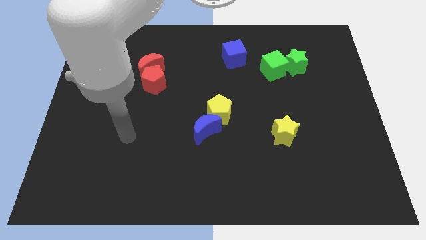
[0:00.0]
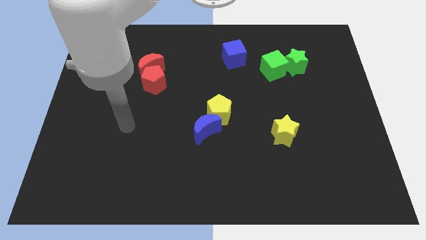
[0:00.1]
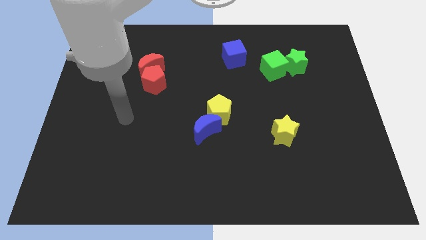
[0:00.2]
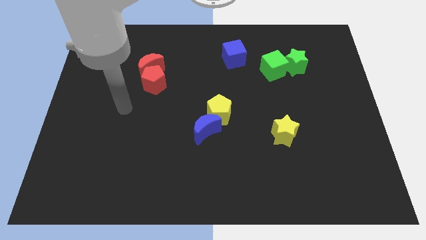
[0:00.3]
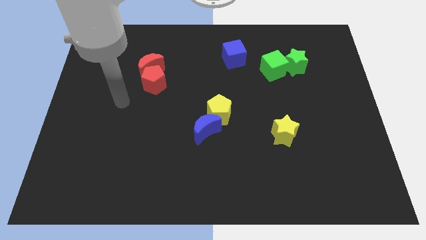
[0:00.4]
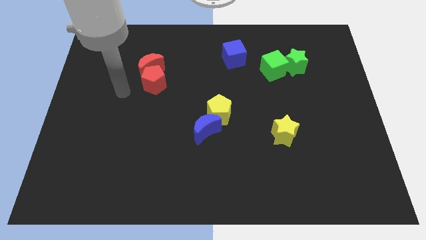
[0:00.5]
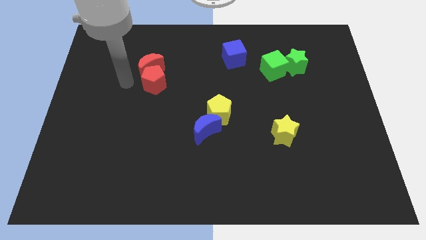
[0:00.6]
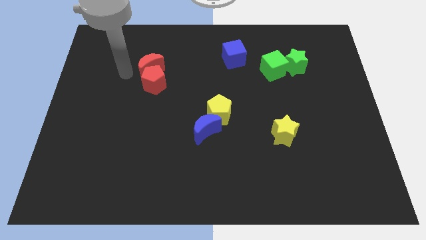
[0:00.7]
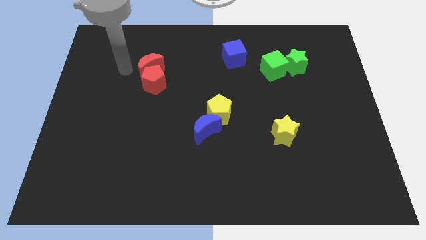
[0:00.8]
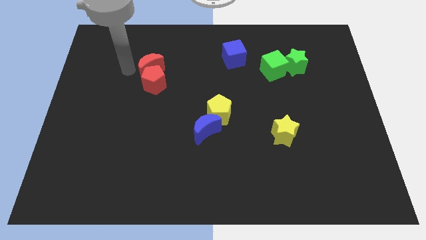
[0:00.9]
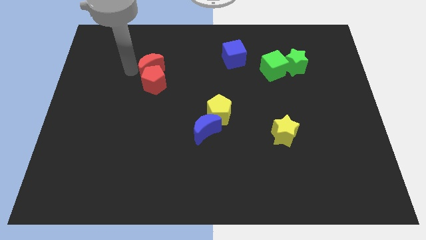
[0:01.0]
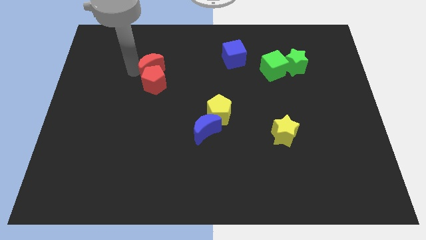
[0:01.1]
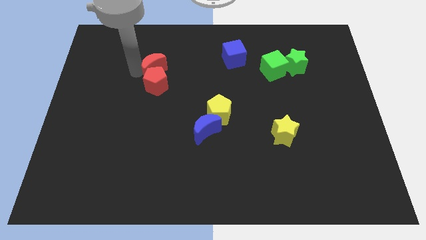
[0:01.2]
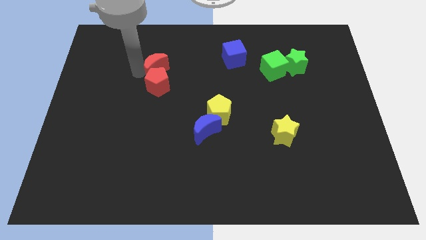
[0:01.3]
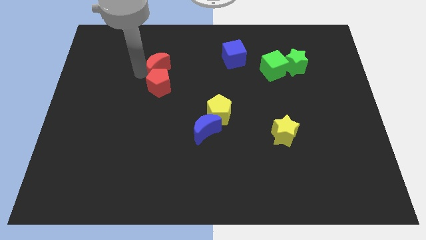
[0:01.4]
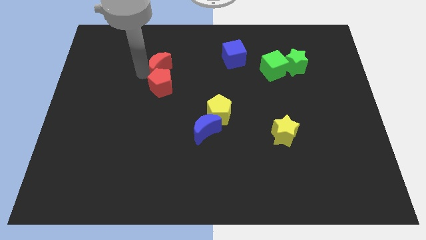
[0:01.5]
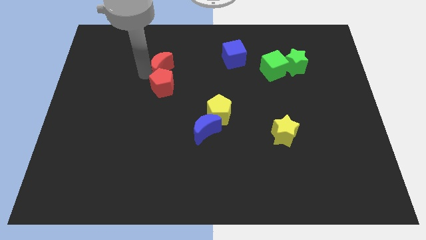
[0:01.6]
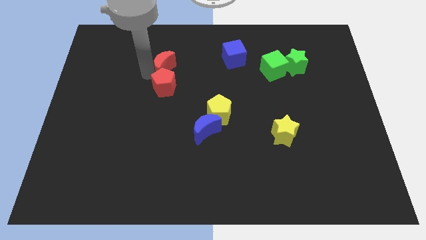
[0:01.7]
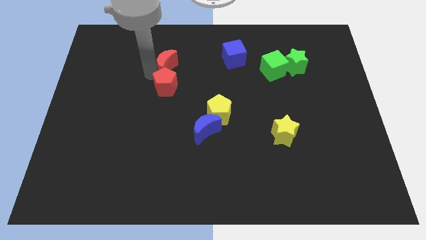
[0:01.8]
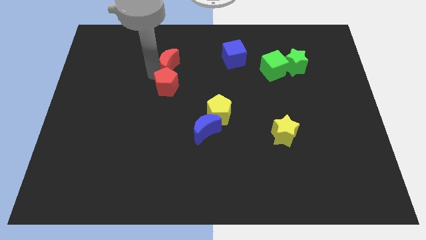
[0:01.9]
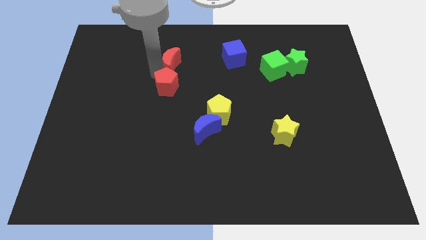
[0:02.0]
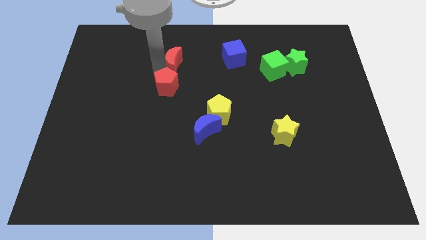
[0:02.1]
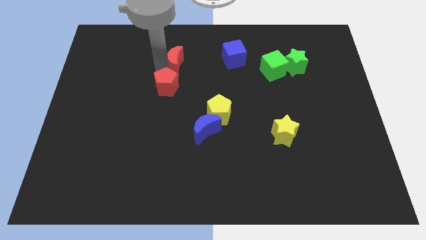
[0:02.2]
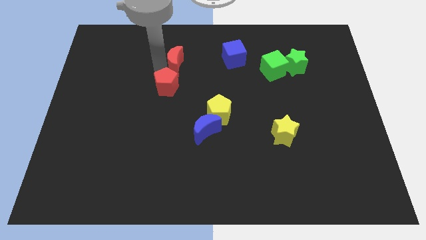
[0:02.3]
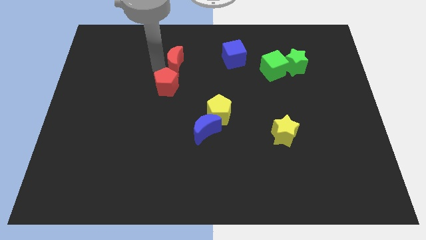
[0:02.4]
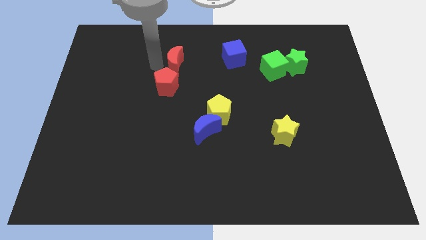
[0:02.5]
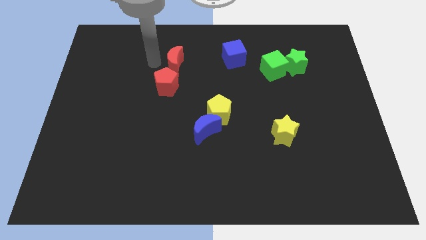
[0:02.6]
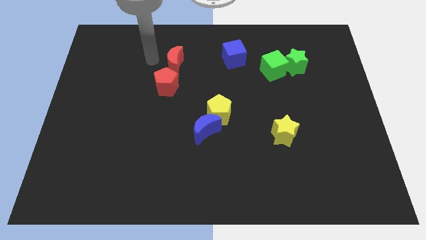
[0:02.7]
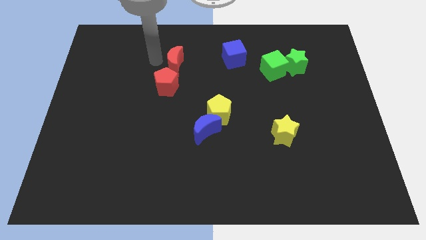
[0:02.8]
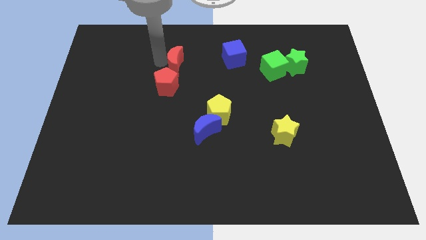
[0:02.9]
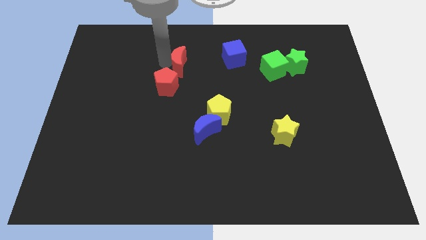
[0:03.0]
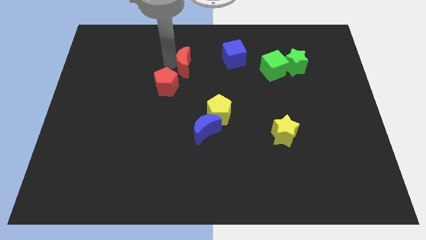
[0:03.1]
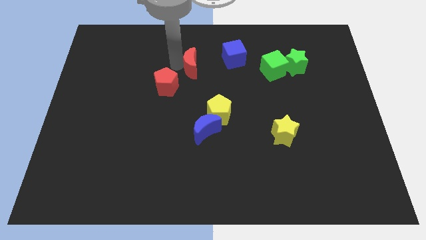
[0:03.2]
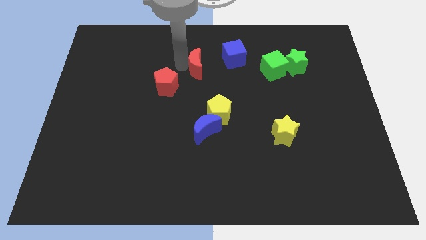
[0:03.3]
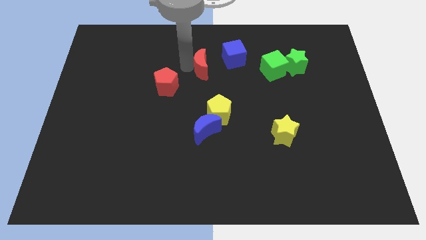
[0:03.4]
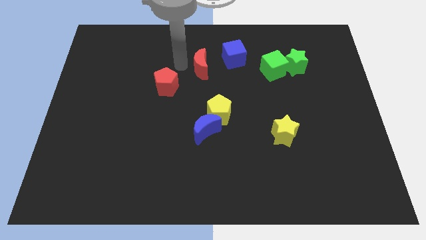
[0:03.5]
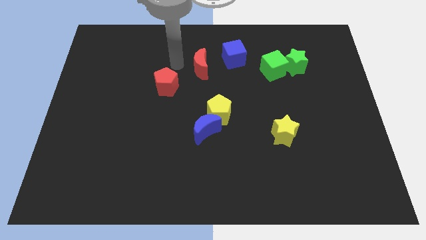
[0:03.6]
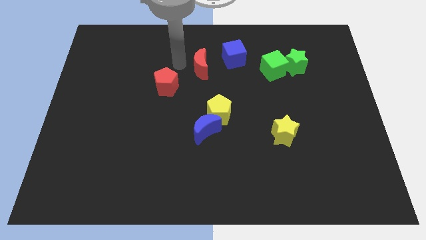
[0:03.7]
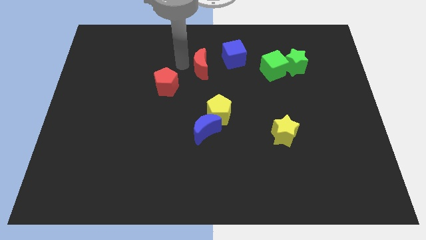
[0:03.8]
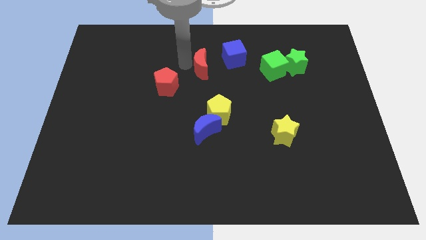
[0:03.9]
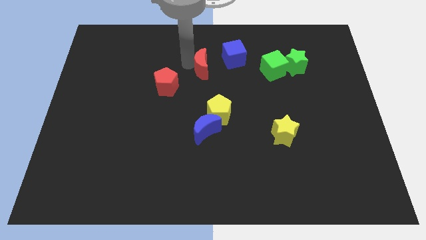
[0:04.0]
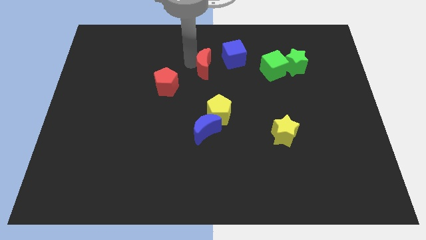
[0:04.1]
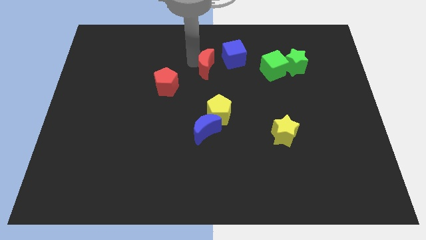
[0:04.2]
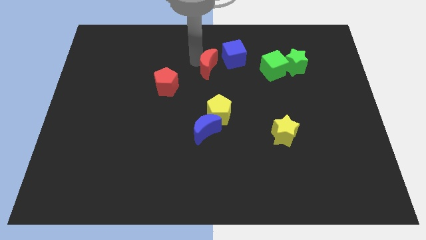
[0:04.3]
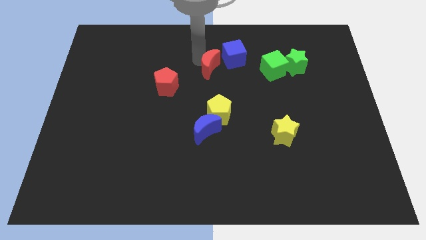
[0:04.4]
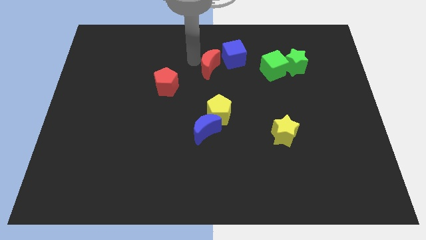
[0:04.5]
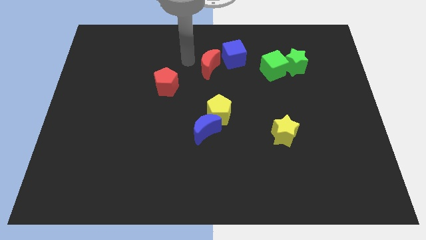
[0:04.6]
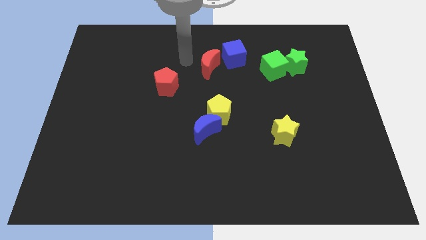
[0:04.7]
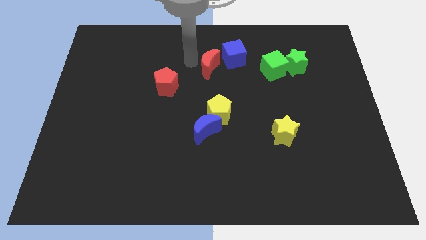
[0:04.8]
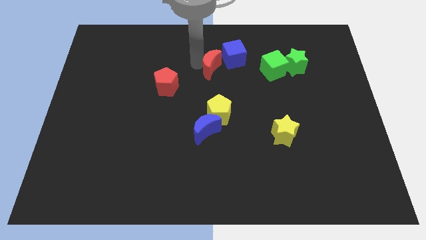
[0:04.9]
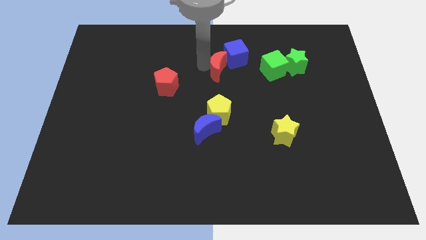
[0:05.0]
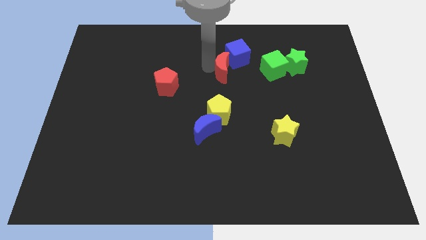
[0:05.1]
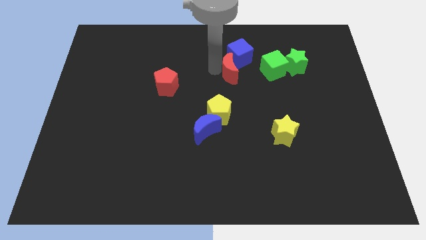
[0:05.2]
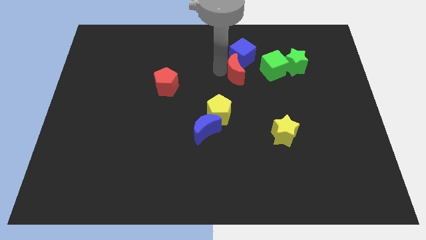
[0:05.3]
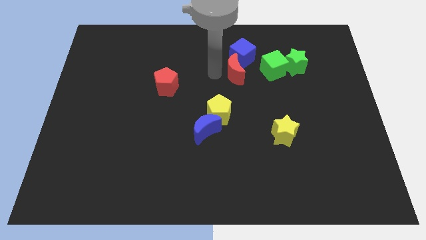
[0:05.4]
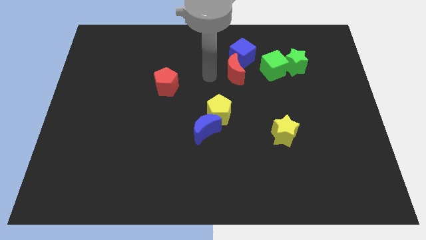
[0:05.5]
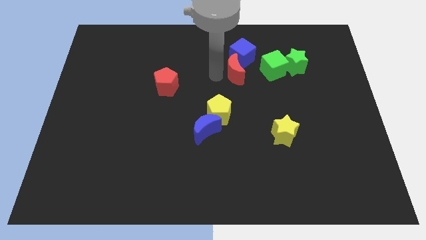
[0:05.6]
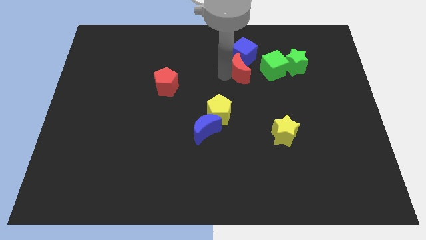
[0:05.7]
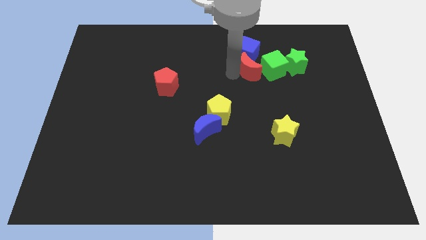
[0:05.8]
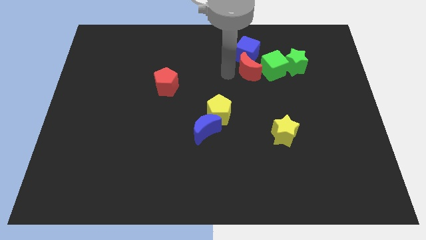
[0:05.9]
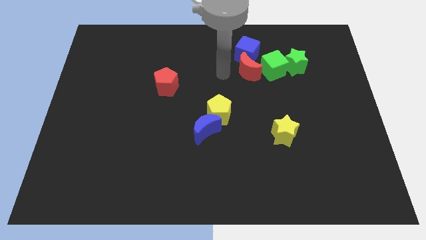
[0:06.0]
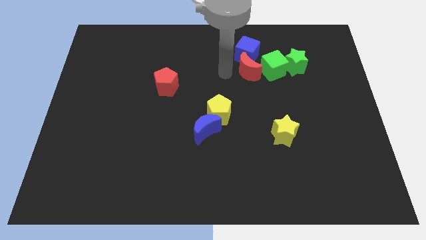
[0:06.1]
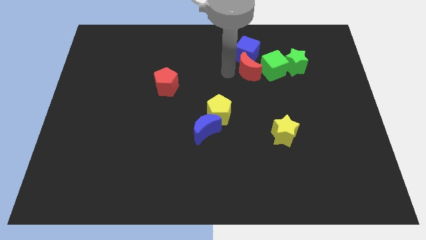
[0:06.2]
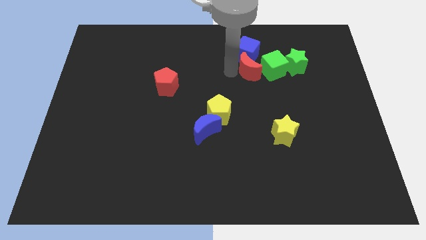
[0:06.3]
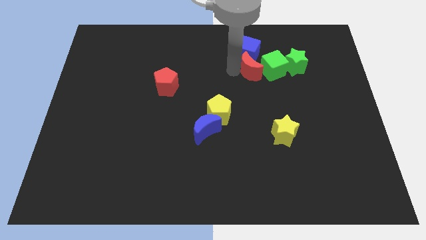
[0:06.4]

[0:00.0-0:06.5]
move the red moon close to the green cube
